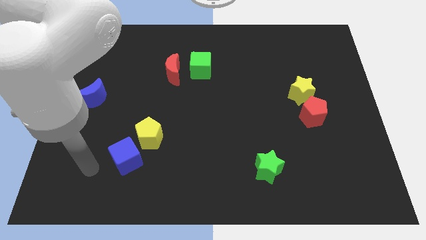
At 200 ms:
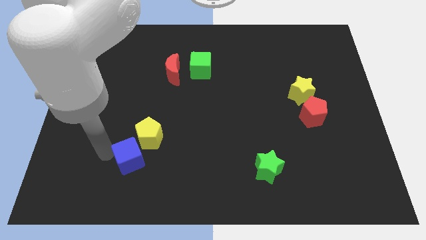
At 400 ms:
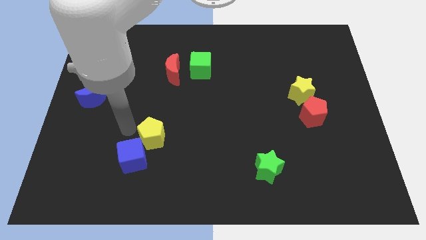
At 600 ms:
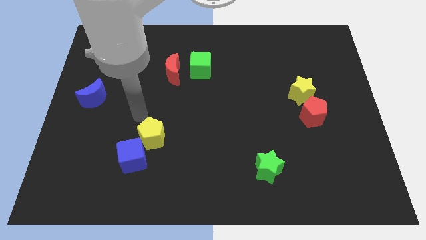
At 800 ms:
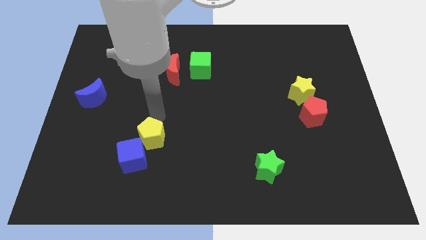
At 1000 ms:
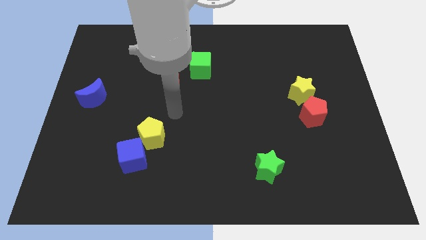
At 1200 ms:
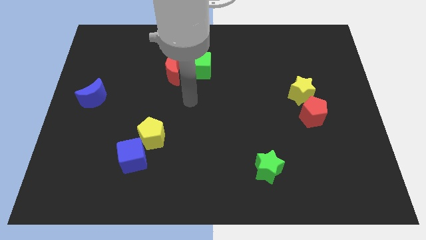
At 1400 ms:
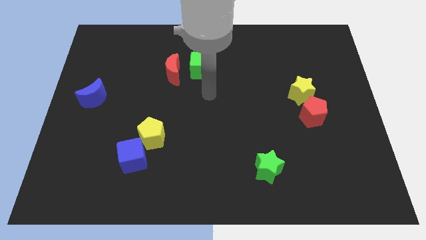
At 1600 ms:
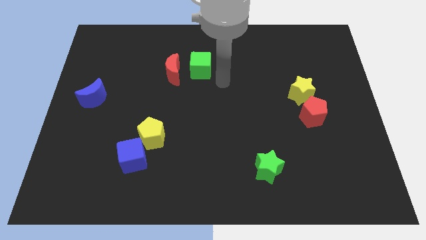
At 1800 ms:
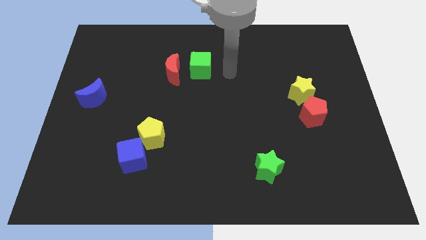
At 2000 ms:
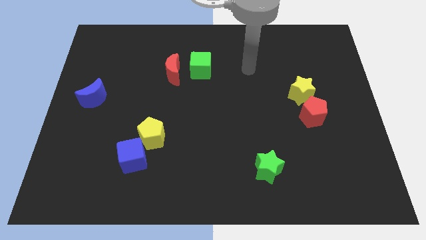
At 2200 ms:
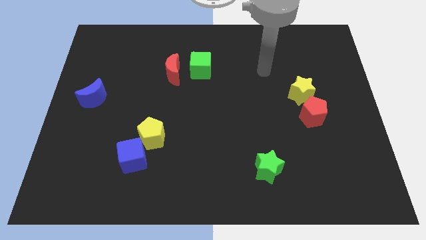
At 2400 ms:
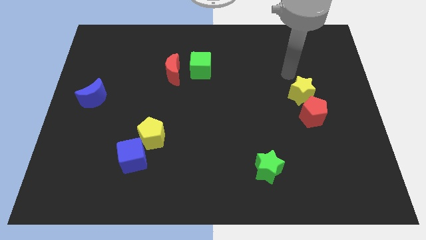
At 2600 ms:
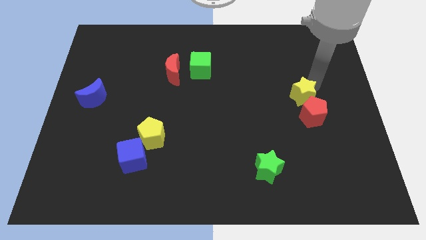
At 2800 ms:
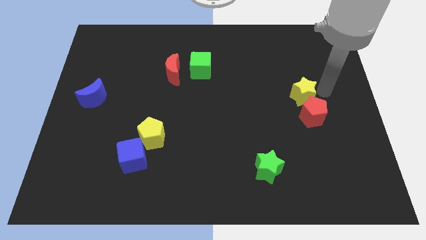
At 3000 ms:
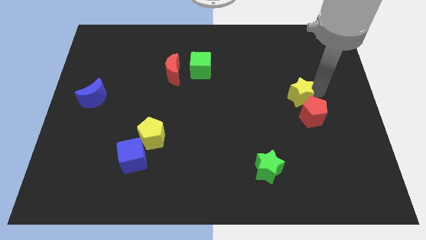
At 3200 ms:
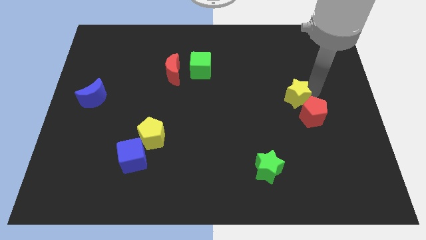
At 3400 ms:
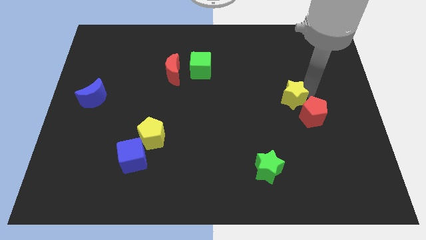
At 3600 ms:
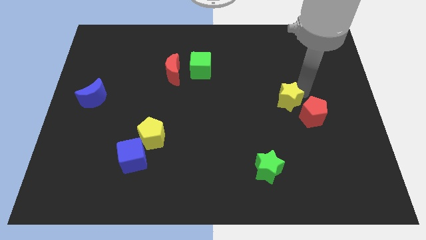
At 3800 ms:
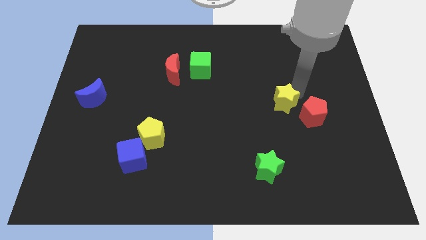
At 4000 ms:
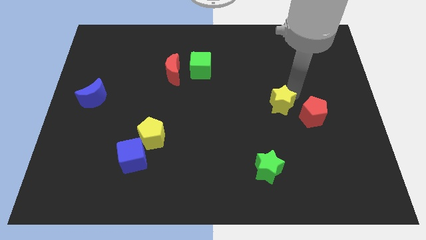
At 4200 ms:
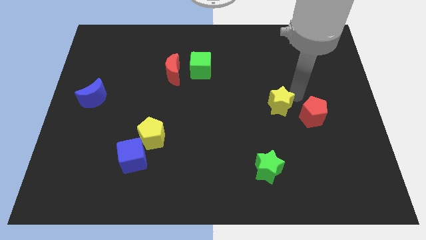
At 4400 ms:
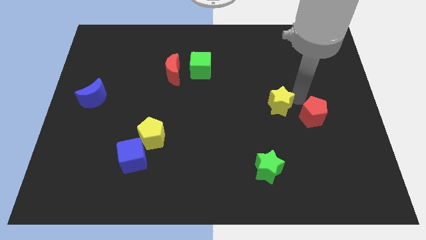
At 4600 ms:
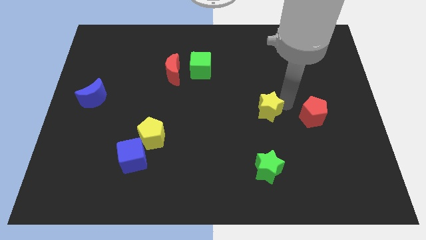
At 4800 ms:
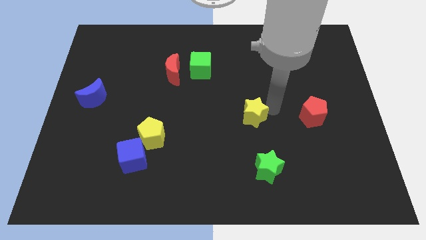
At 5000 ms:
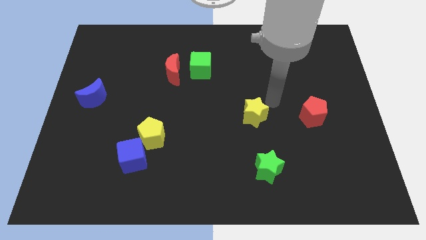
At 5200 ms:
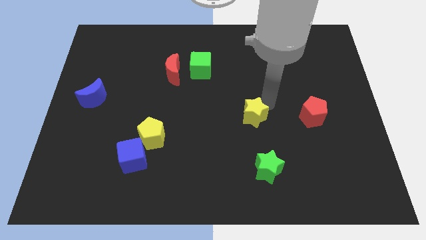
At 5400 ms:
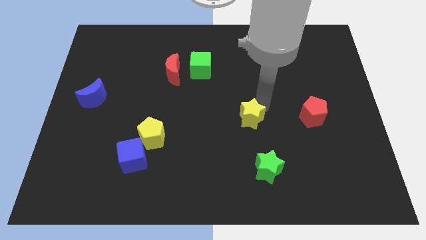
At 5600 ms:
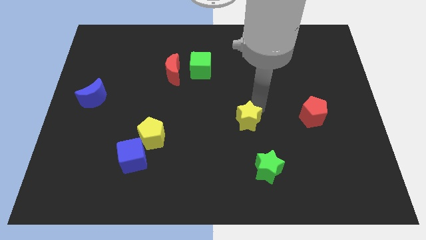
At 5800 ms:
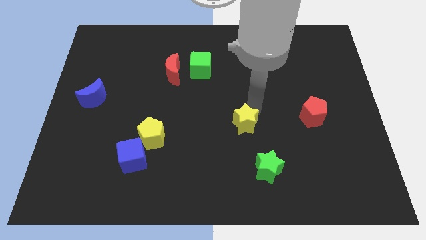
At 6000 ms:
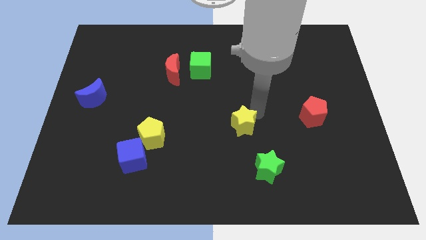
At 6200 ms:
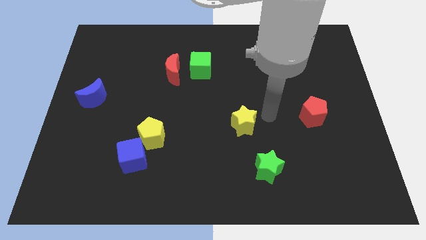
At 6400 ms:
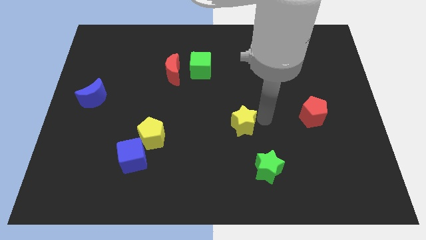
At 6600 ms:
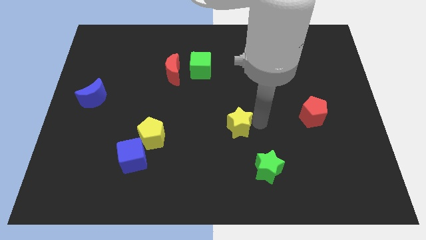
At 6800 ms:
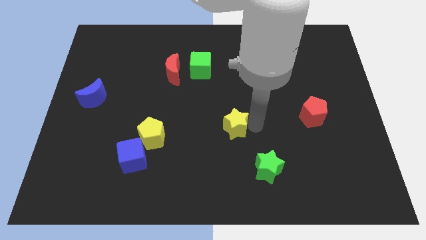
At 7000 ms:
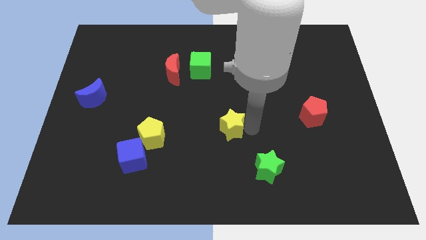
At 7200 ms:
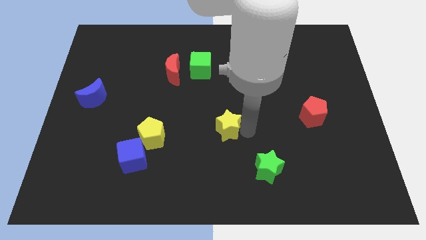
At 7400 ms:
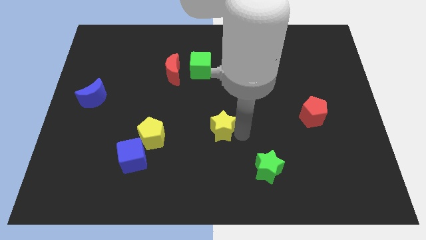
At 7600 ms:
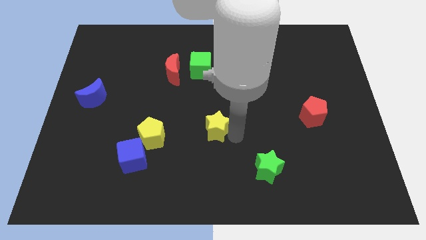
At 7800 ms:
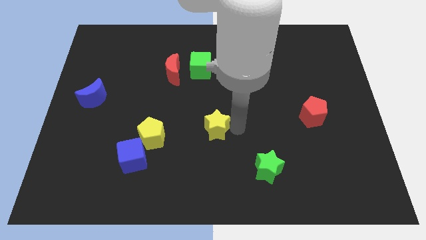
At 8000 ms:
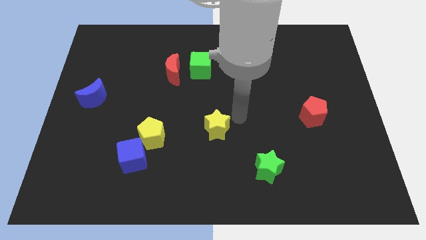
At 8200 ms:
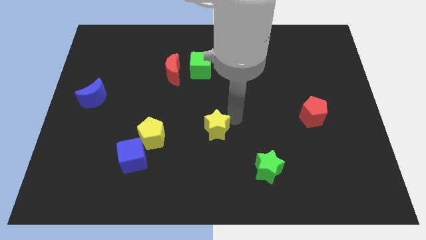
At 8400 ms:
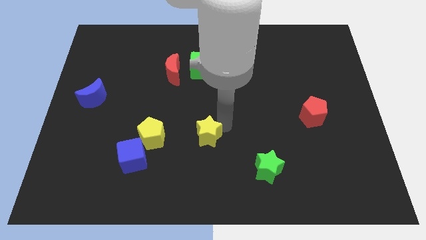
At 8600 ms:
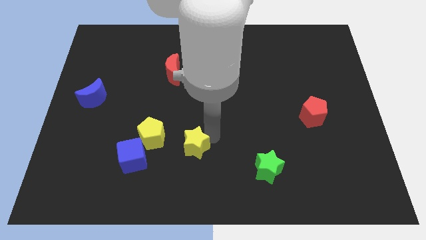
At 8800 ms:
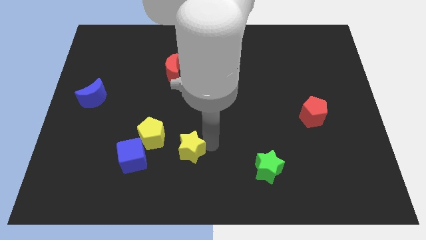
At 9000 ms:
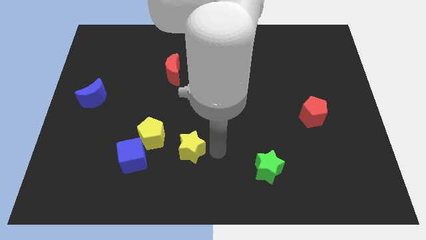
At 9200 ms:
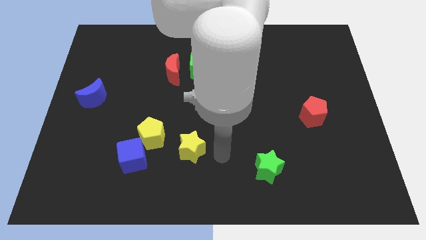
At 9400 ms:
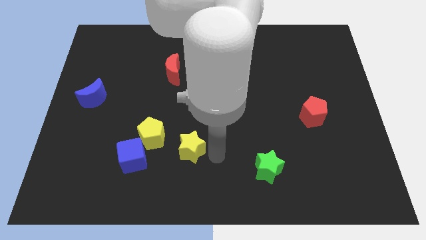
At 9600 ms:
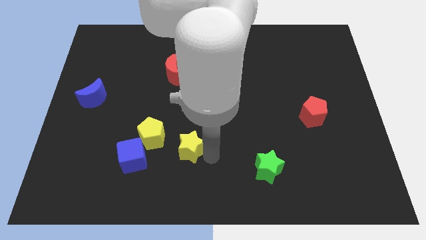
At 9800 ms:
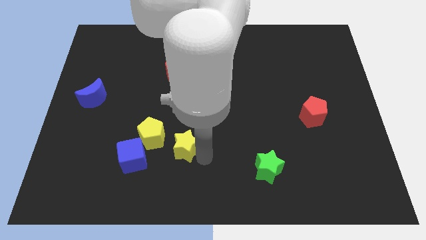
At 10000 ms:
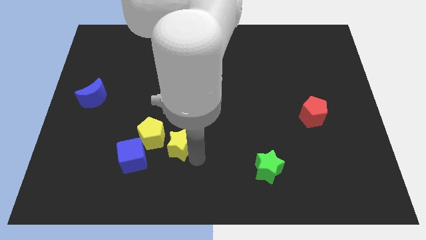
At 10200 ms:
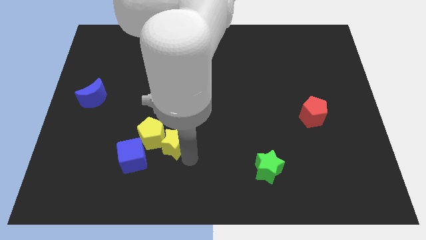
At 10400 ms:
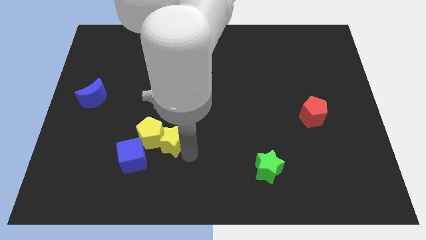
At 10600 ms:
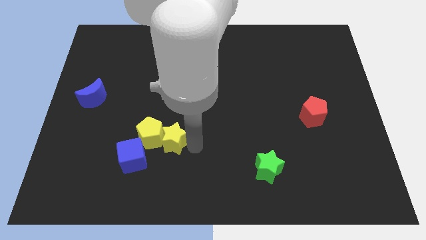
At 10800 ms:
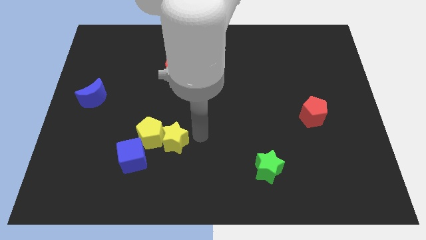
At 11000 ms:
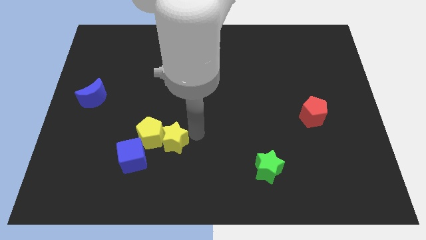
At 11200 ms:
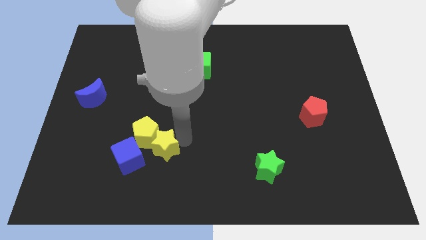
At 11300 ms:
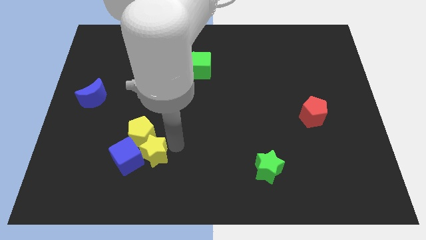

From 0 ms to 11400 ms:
put the yellow star towards the blue cube

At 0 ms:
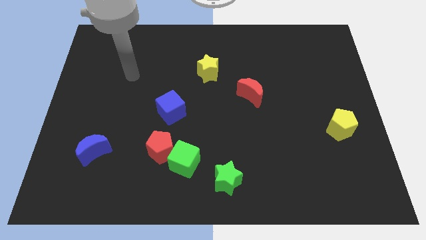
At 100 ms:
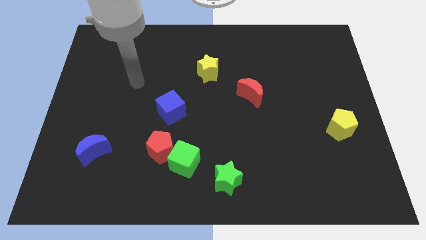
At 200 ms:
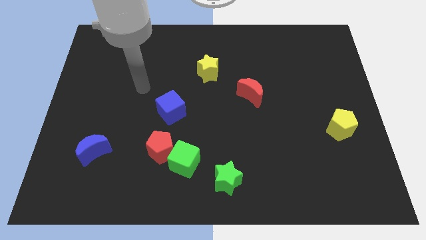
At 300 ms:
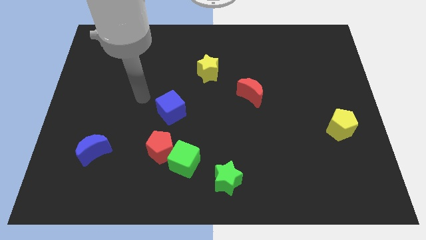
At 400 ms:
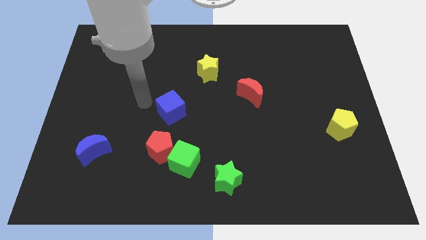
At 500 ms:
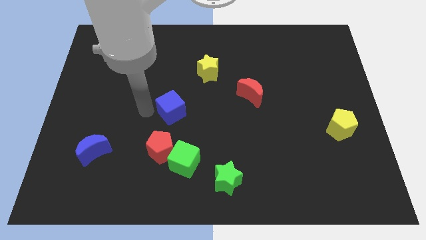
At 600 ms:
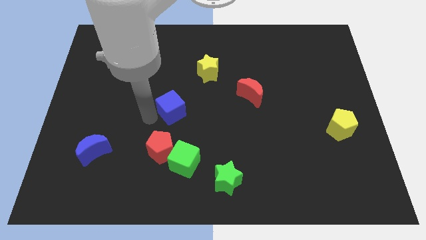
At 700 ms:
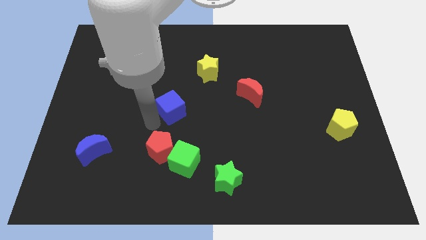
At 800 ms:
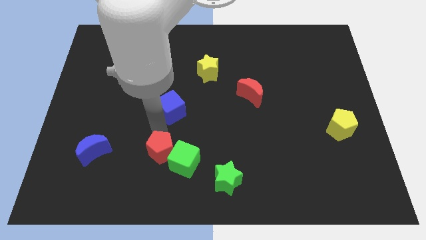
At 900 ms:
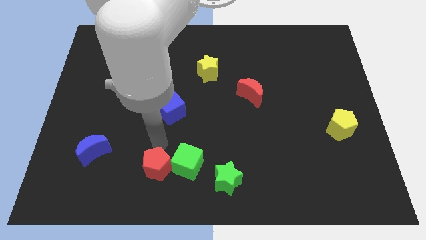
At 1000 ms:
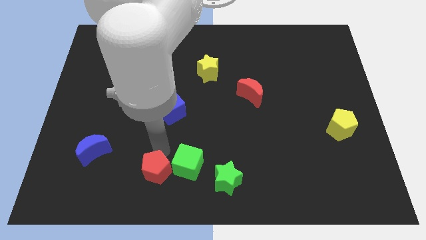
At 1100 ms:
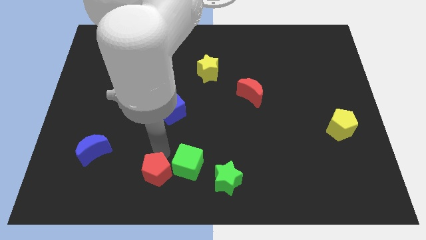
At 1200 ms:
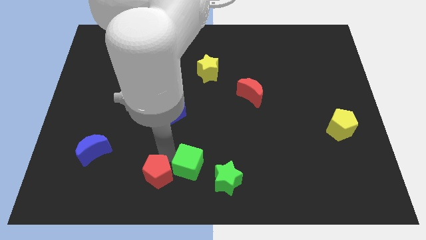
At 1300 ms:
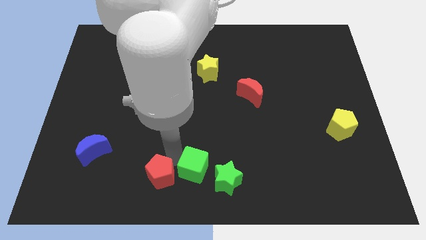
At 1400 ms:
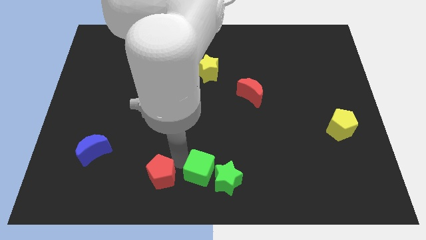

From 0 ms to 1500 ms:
put the green cube towards the green star

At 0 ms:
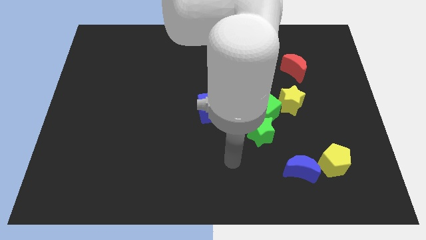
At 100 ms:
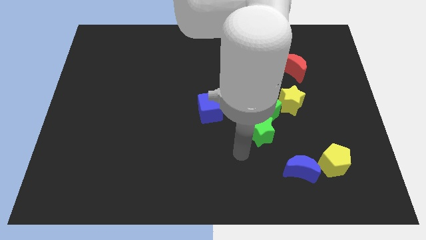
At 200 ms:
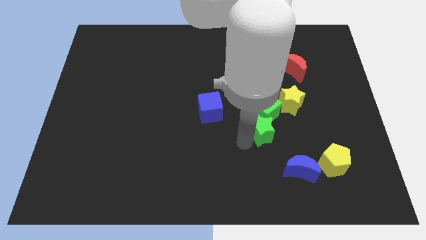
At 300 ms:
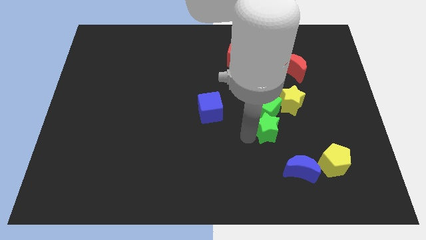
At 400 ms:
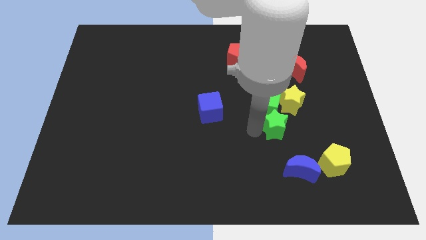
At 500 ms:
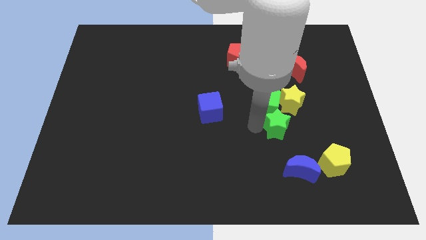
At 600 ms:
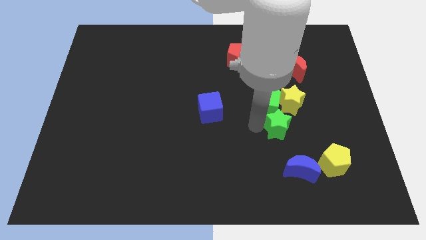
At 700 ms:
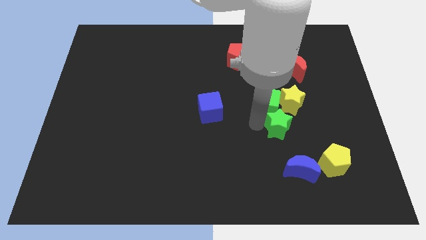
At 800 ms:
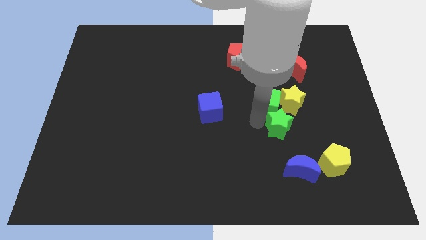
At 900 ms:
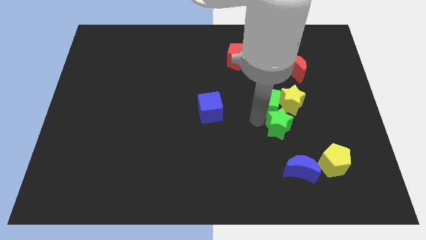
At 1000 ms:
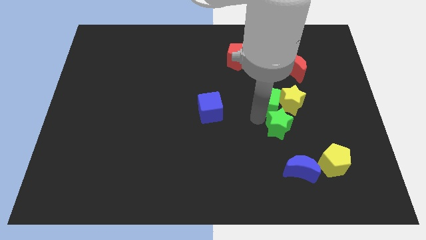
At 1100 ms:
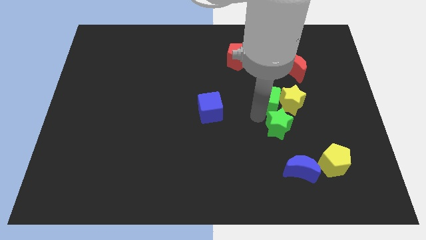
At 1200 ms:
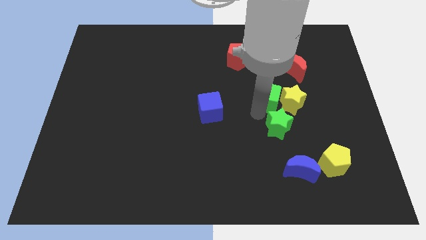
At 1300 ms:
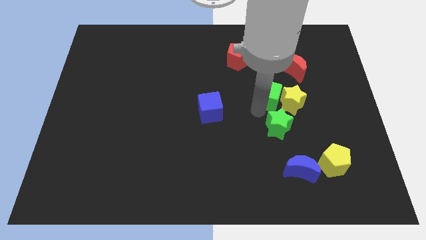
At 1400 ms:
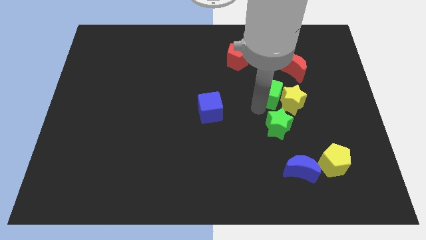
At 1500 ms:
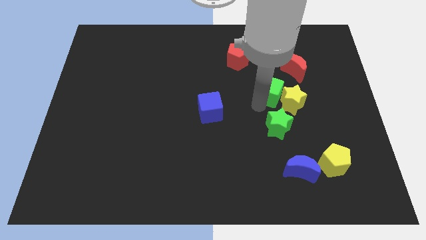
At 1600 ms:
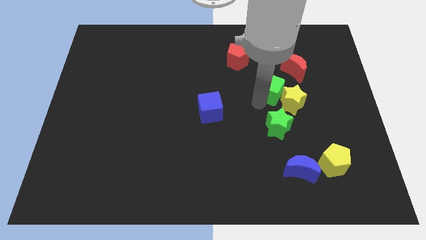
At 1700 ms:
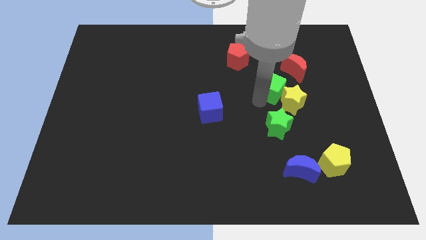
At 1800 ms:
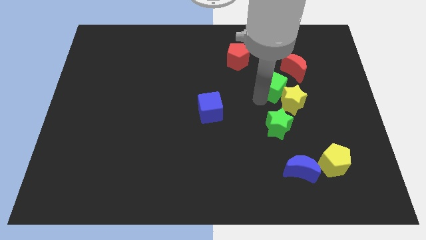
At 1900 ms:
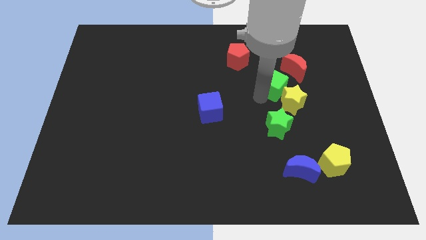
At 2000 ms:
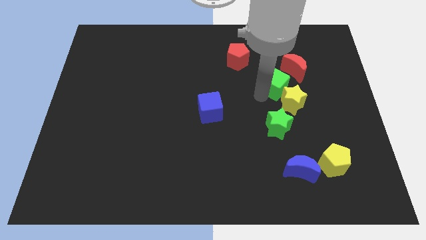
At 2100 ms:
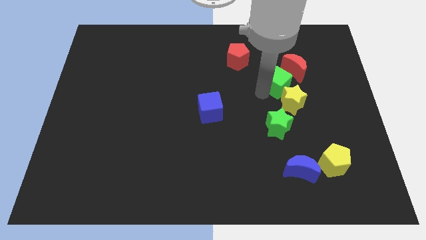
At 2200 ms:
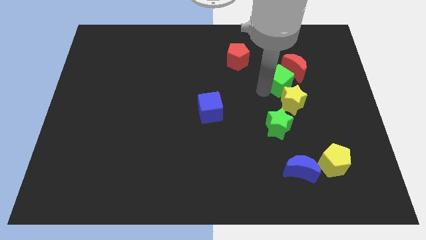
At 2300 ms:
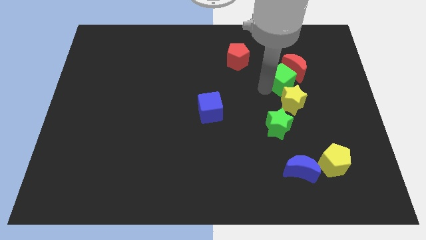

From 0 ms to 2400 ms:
move the green cube towards the red moon
